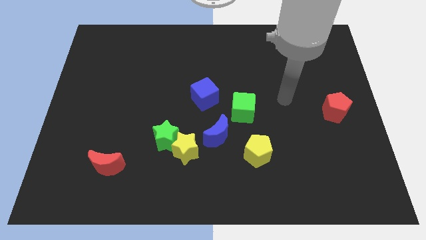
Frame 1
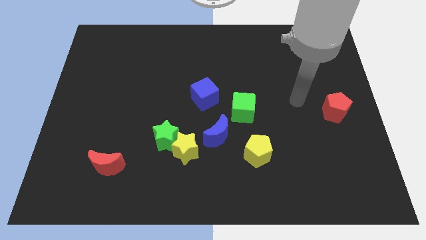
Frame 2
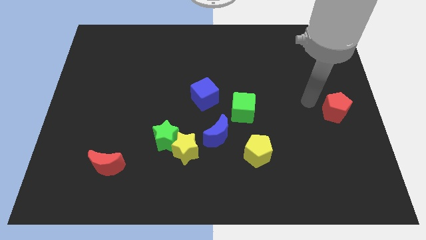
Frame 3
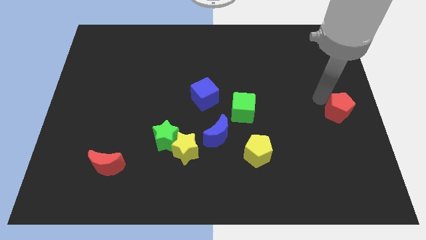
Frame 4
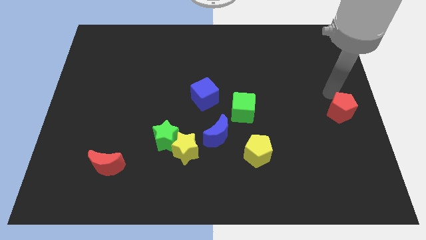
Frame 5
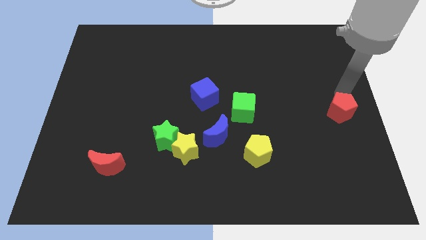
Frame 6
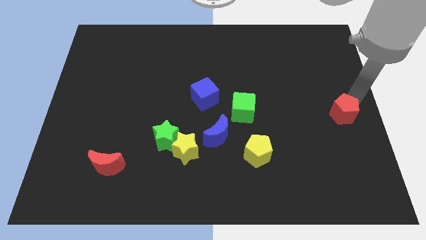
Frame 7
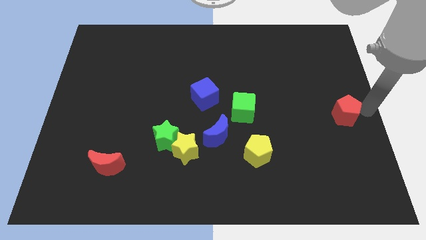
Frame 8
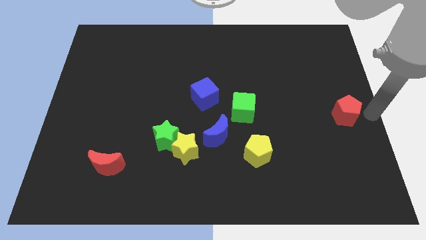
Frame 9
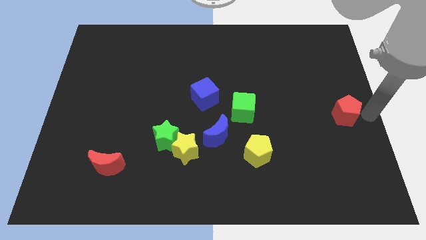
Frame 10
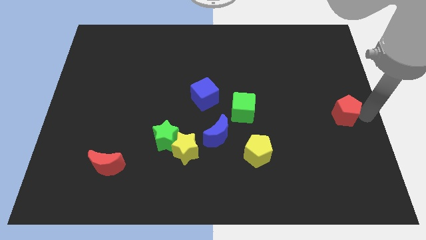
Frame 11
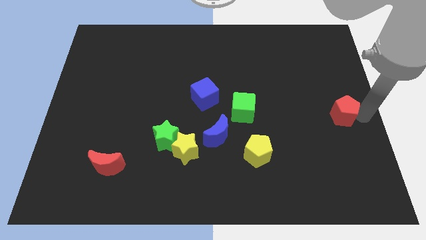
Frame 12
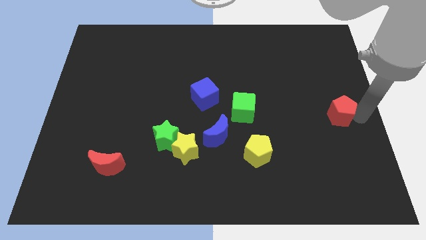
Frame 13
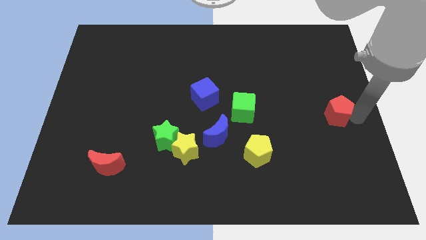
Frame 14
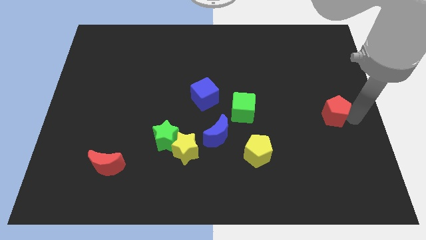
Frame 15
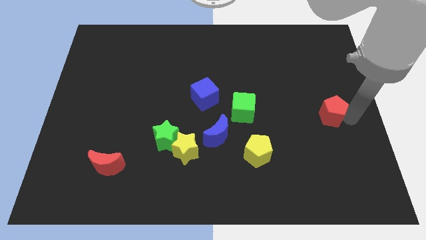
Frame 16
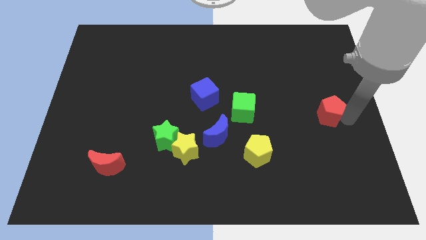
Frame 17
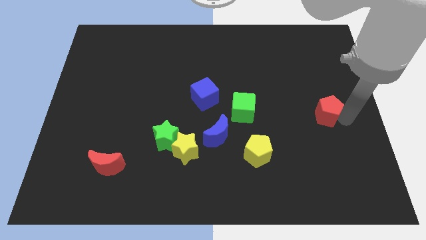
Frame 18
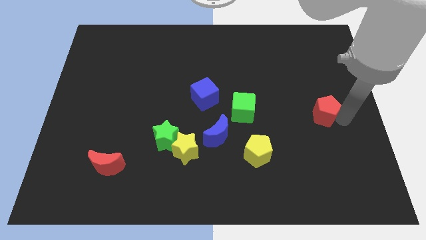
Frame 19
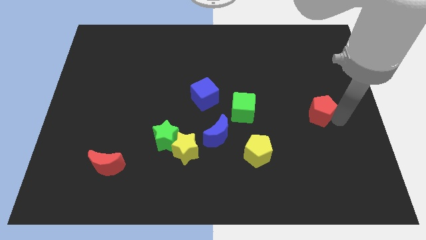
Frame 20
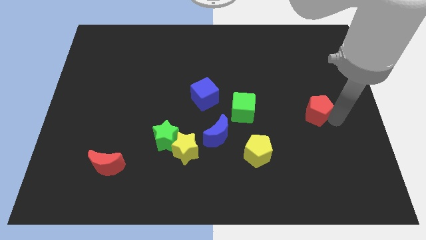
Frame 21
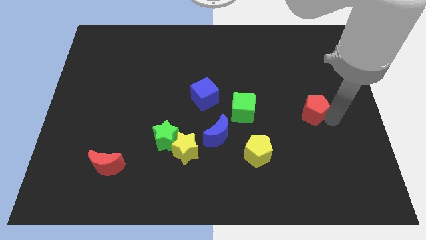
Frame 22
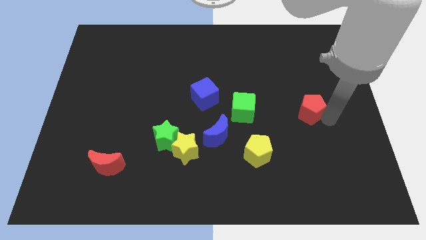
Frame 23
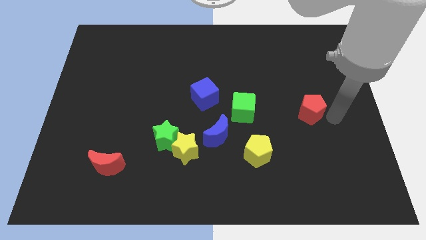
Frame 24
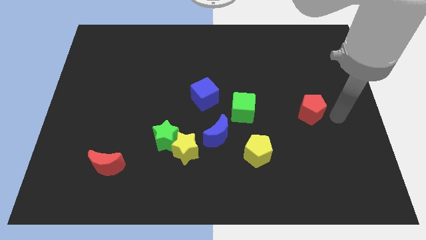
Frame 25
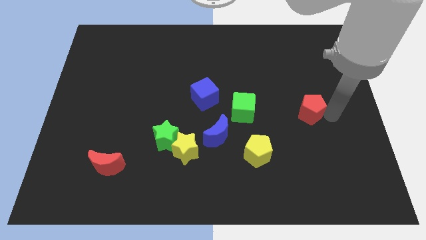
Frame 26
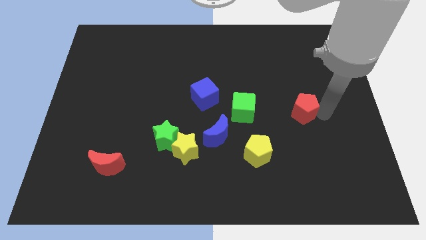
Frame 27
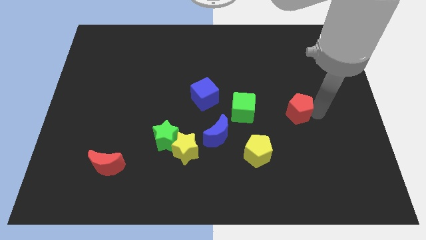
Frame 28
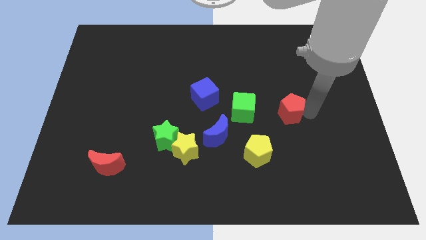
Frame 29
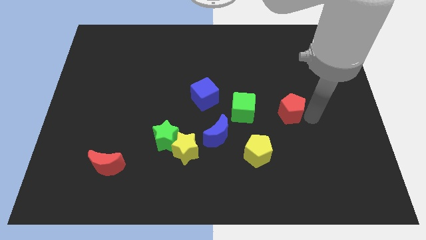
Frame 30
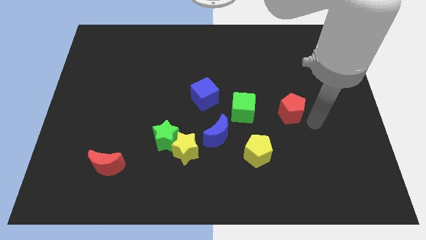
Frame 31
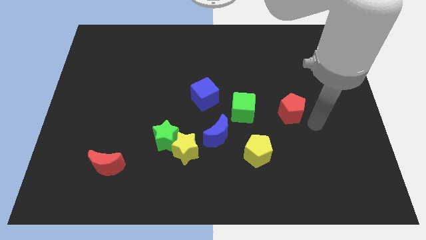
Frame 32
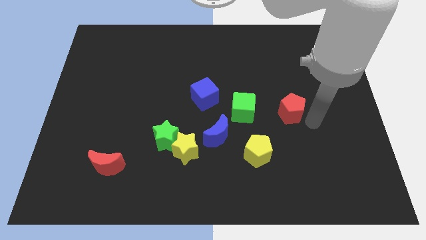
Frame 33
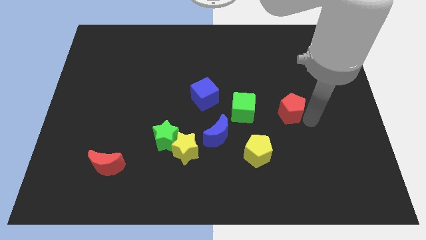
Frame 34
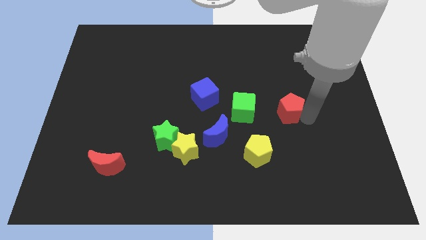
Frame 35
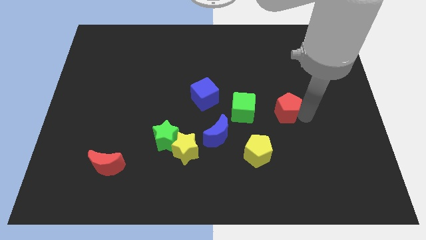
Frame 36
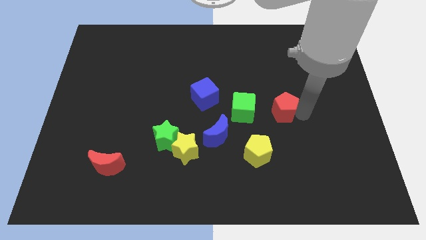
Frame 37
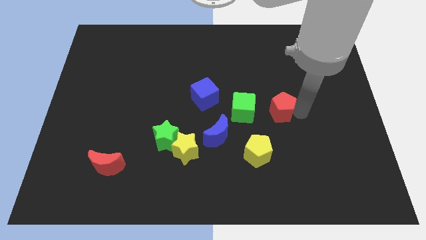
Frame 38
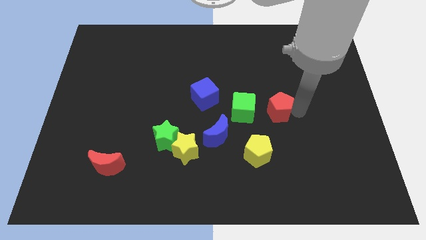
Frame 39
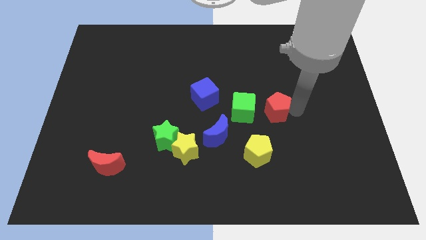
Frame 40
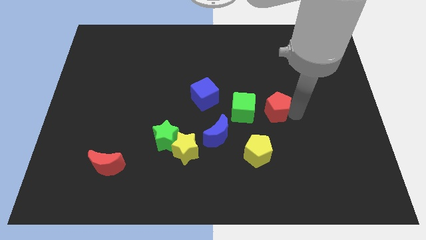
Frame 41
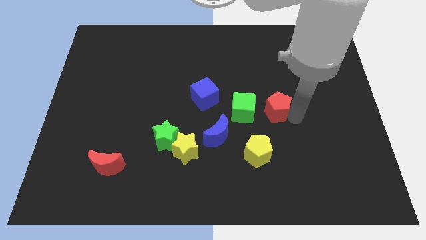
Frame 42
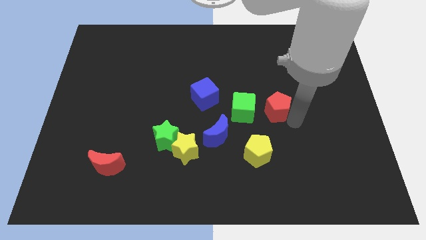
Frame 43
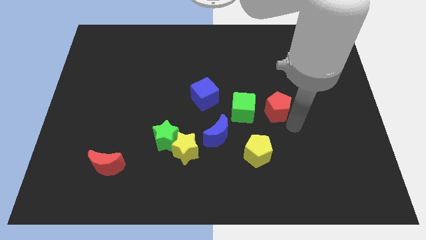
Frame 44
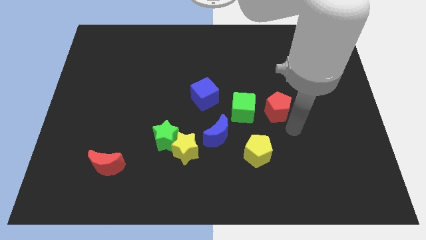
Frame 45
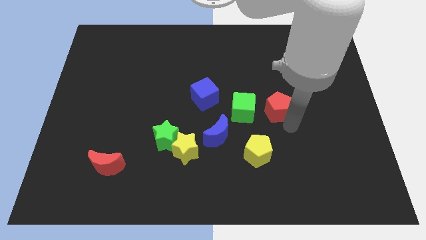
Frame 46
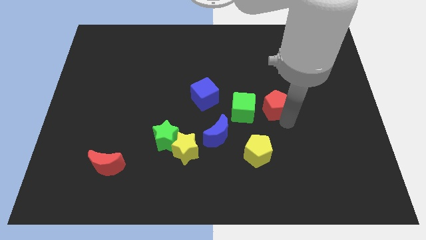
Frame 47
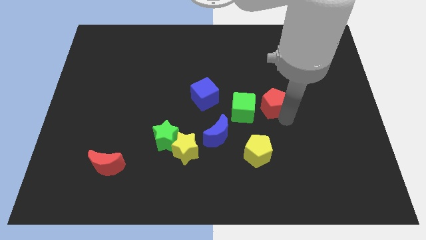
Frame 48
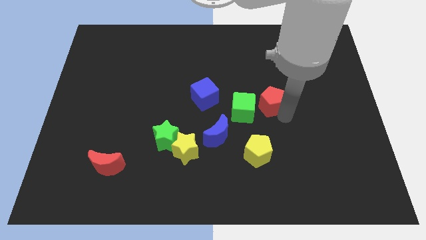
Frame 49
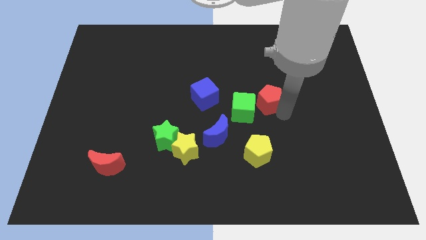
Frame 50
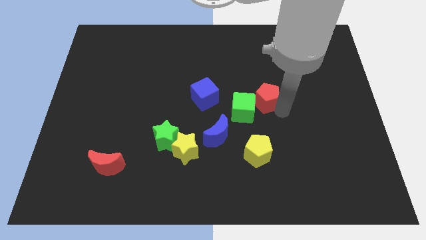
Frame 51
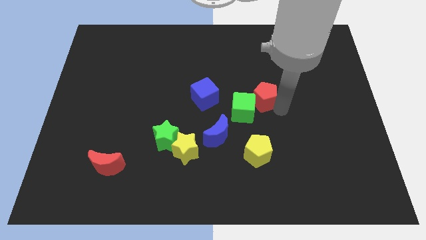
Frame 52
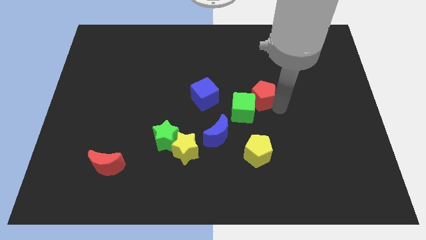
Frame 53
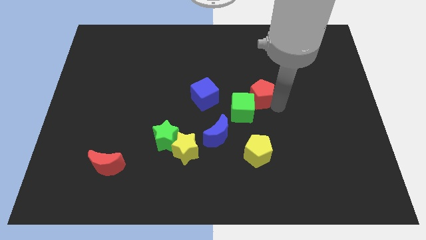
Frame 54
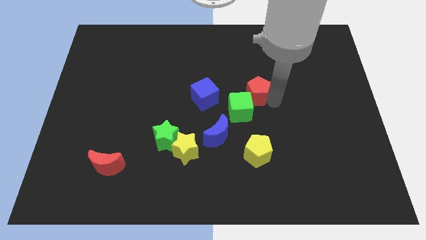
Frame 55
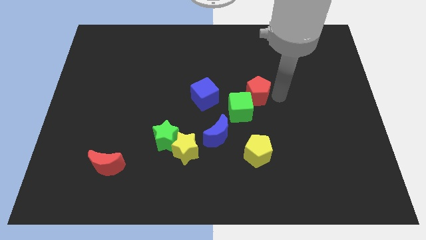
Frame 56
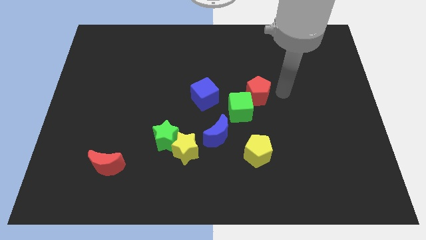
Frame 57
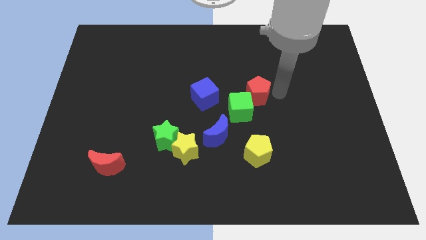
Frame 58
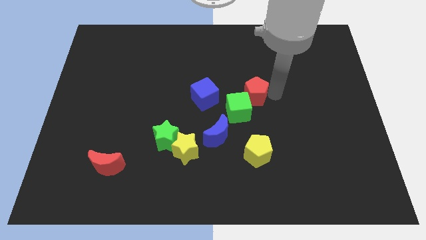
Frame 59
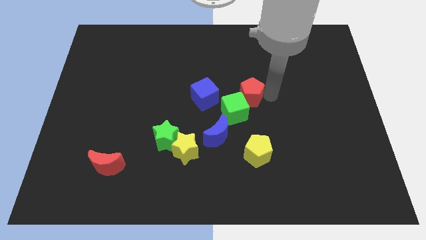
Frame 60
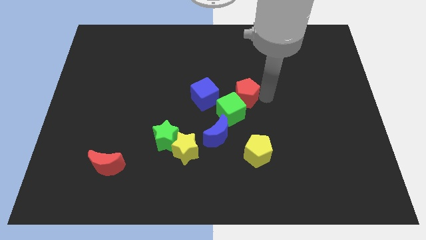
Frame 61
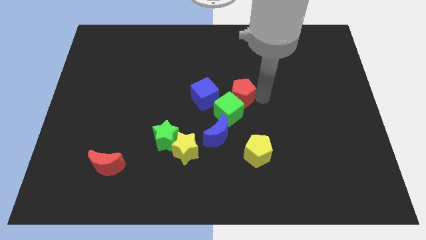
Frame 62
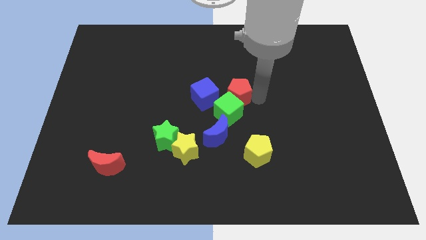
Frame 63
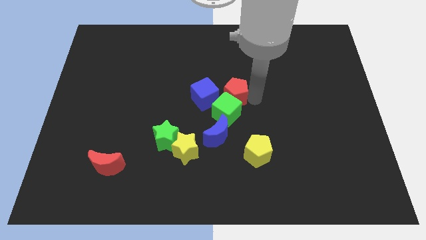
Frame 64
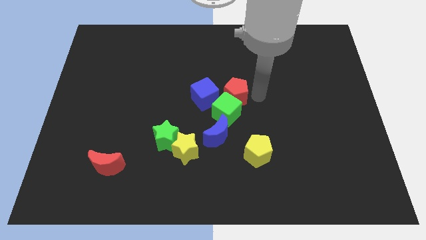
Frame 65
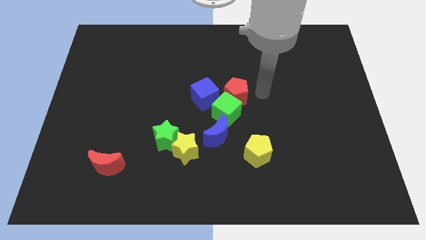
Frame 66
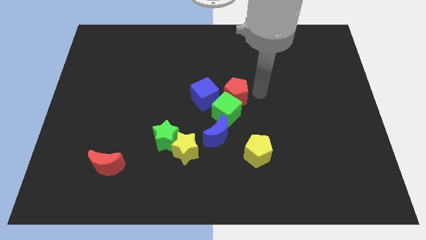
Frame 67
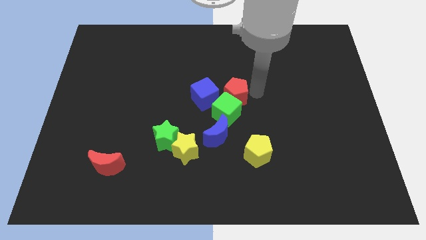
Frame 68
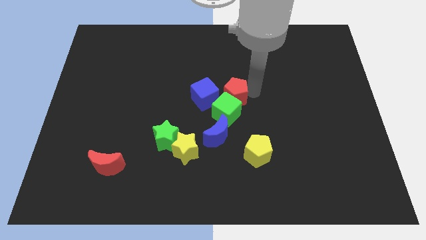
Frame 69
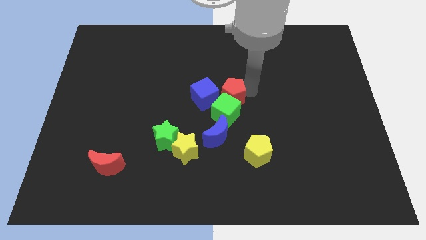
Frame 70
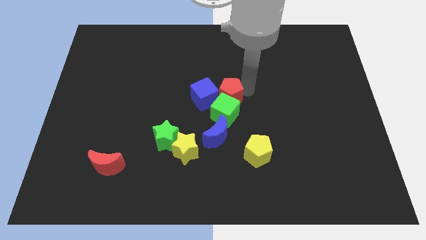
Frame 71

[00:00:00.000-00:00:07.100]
put the red pentagon towards the blue cube
